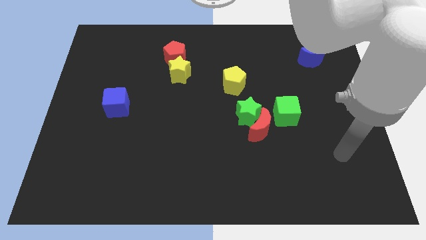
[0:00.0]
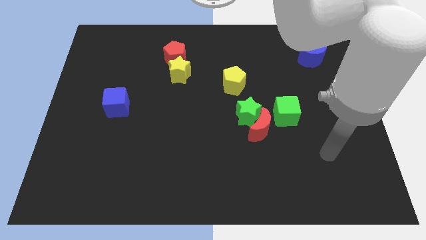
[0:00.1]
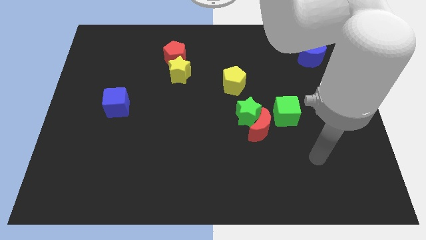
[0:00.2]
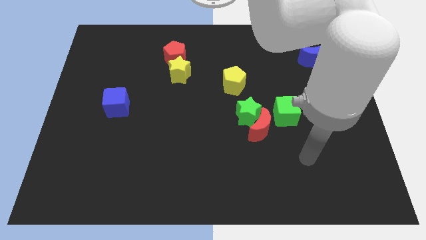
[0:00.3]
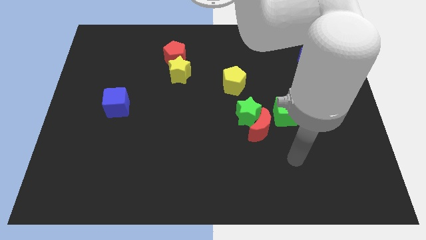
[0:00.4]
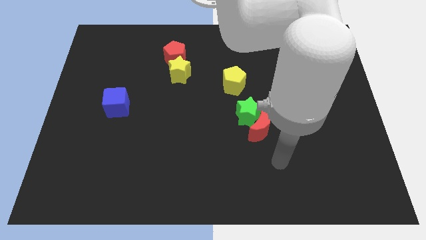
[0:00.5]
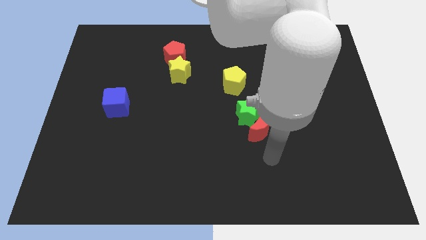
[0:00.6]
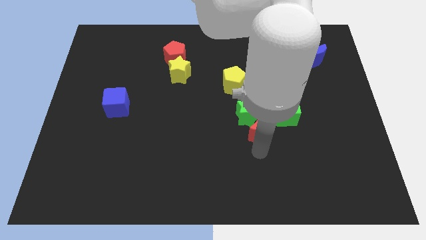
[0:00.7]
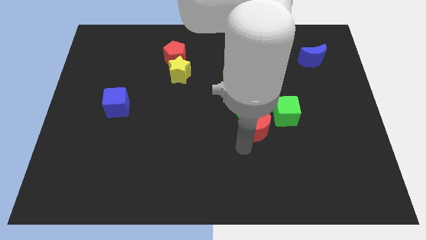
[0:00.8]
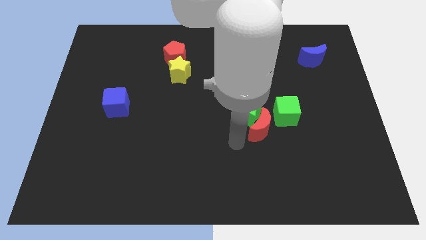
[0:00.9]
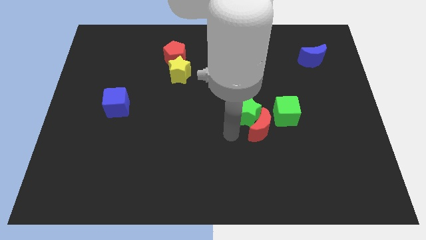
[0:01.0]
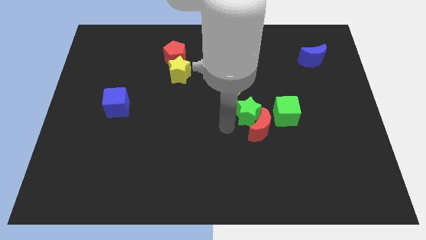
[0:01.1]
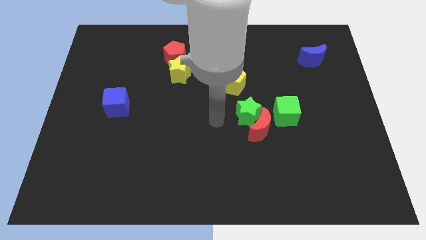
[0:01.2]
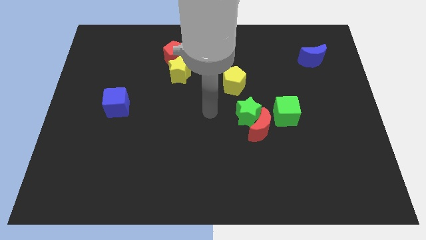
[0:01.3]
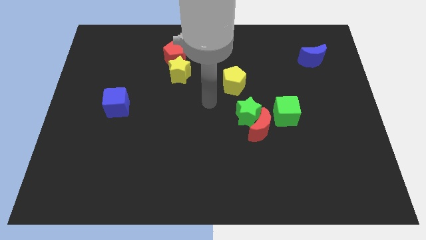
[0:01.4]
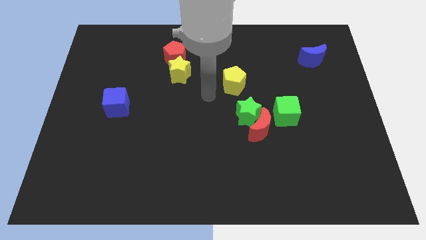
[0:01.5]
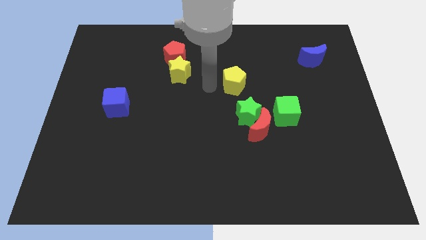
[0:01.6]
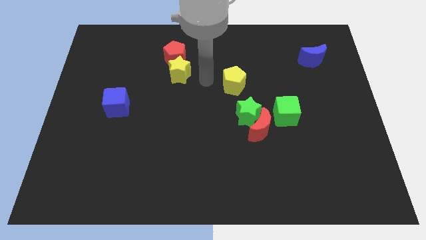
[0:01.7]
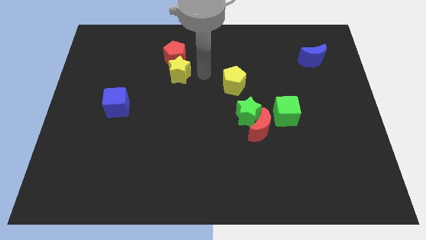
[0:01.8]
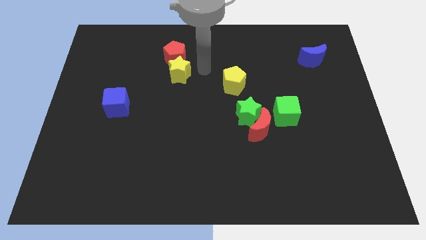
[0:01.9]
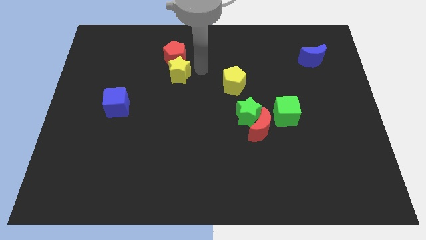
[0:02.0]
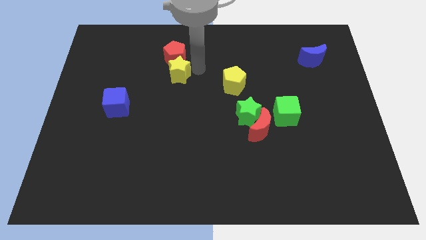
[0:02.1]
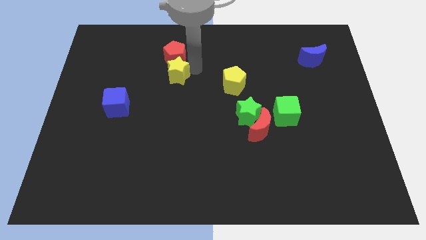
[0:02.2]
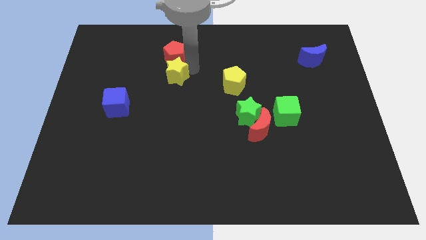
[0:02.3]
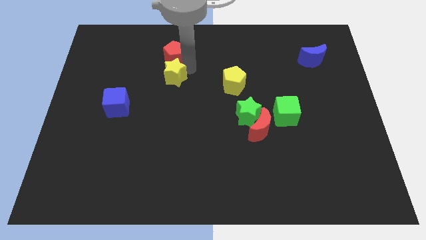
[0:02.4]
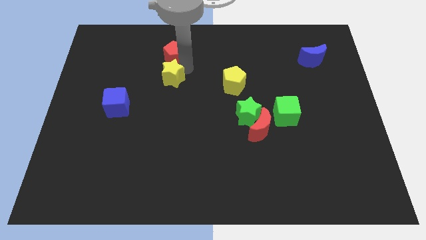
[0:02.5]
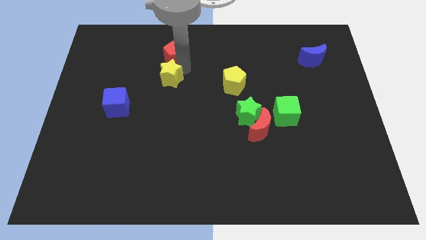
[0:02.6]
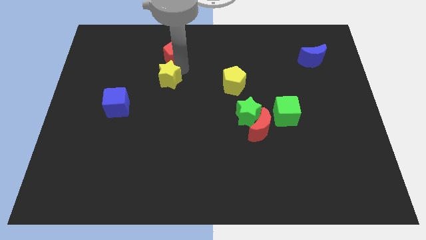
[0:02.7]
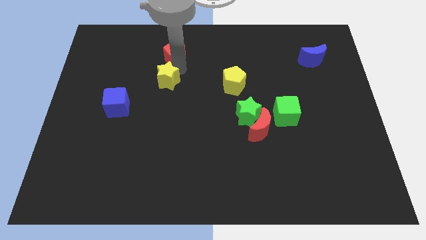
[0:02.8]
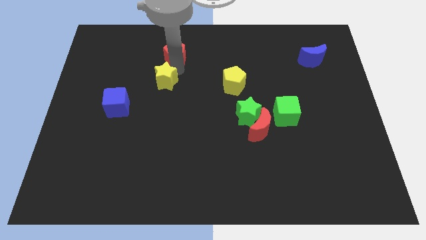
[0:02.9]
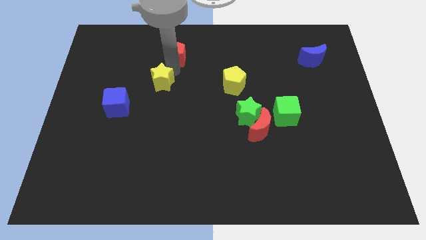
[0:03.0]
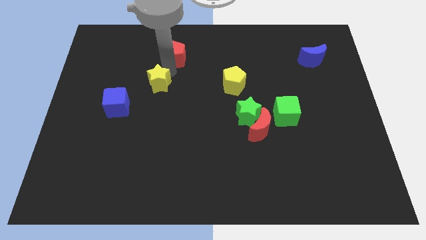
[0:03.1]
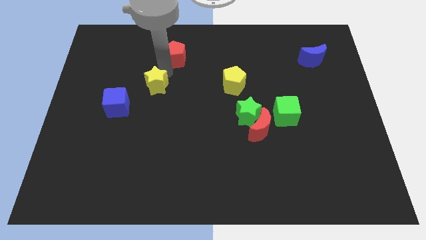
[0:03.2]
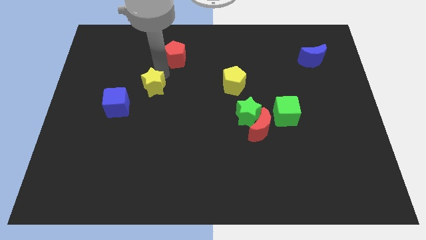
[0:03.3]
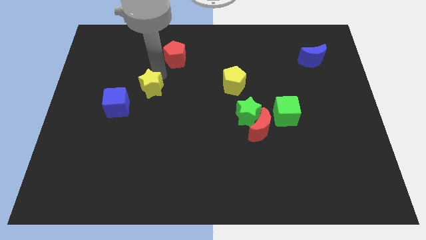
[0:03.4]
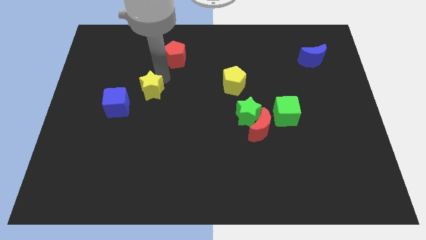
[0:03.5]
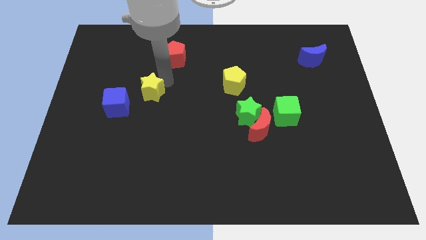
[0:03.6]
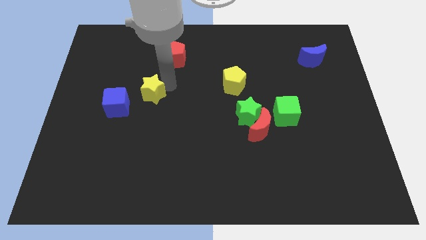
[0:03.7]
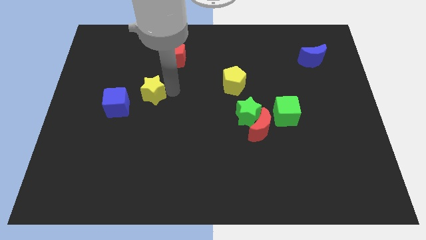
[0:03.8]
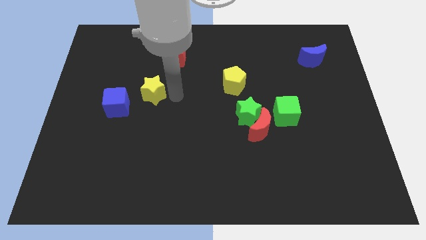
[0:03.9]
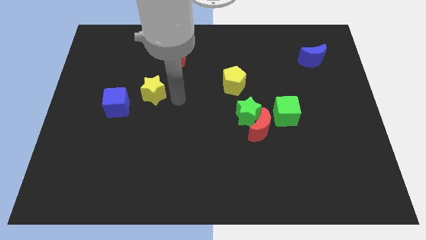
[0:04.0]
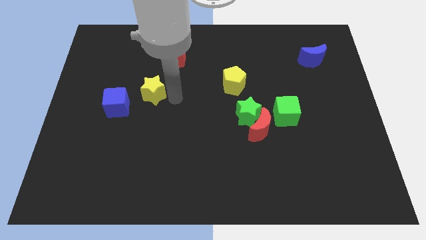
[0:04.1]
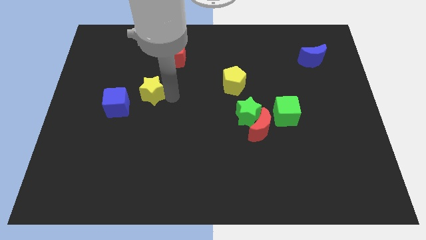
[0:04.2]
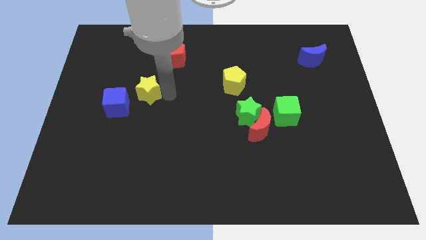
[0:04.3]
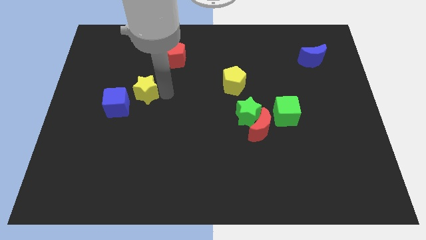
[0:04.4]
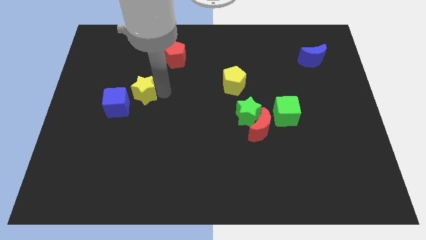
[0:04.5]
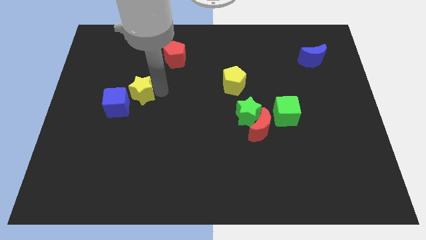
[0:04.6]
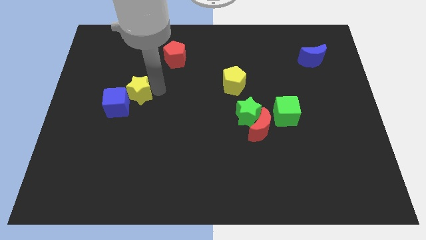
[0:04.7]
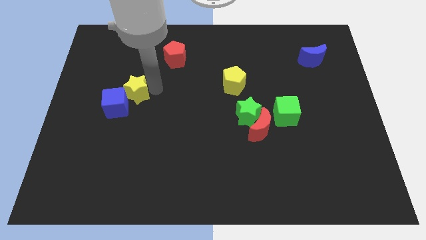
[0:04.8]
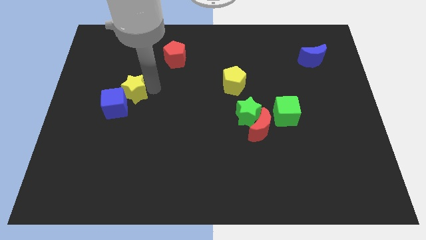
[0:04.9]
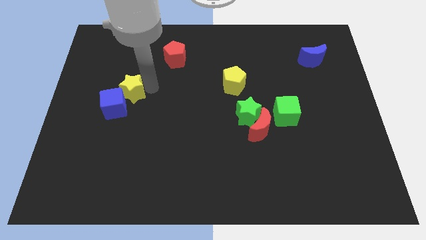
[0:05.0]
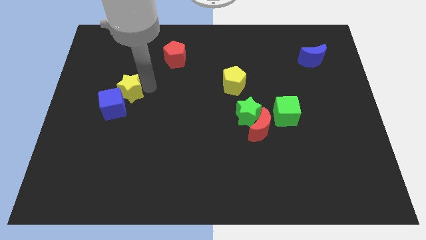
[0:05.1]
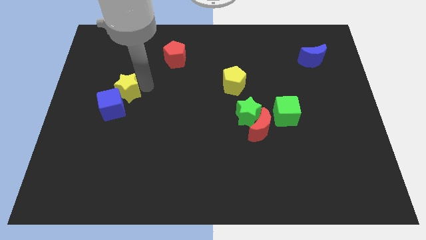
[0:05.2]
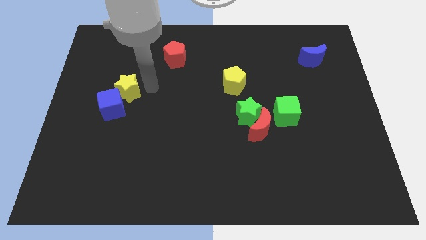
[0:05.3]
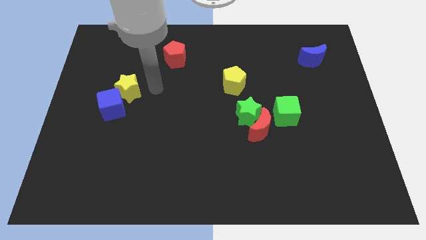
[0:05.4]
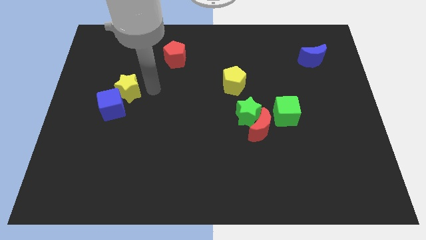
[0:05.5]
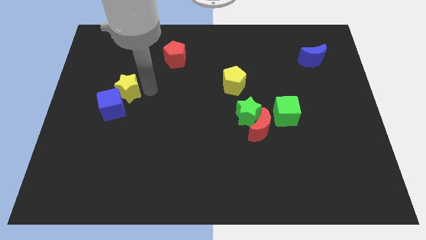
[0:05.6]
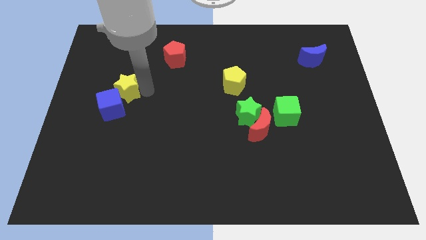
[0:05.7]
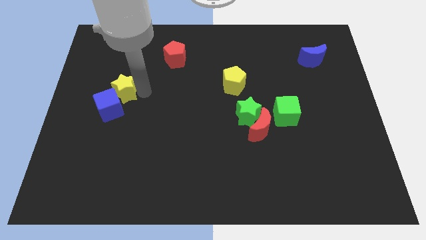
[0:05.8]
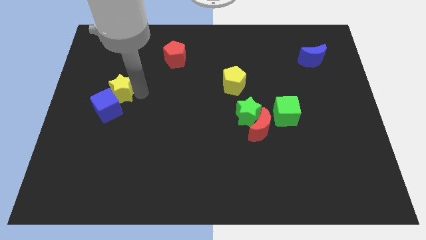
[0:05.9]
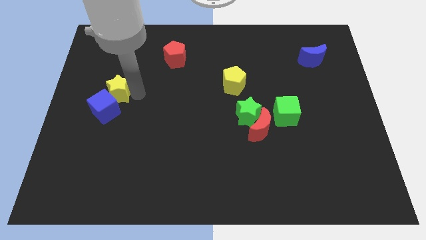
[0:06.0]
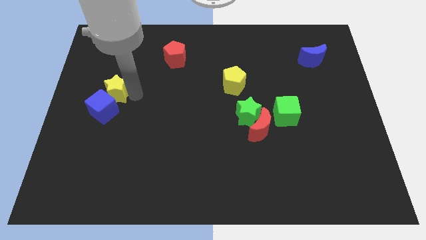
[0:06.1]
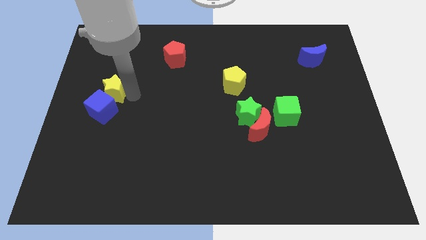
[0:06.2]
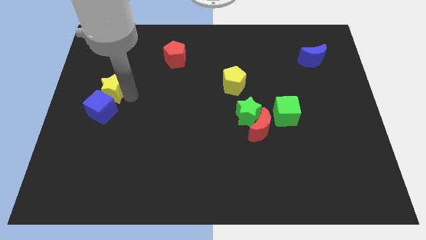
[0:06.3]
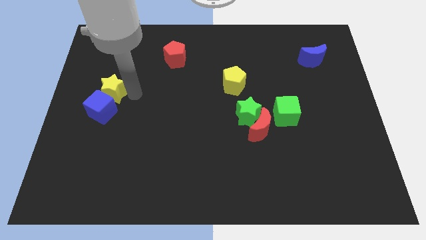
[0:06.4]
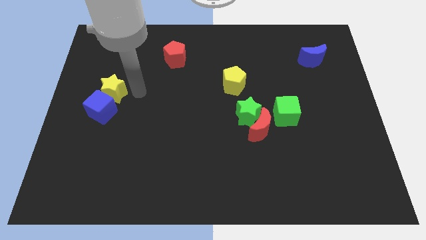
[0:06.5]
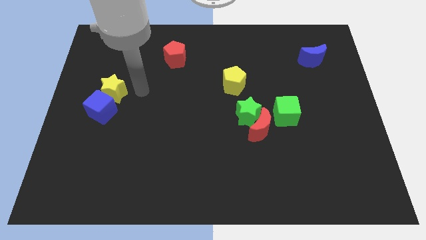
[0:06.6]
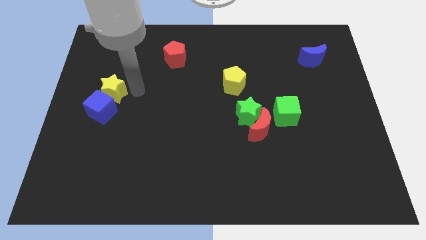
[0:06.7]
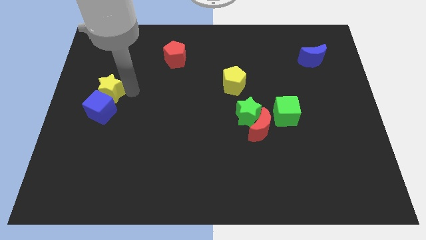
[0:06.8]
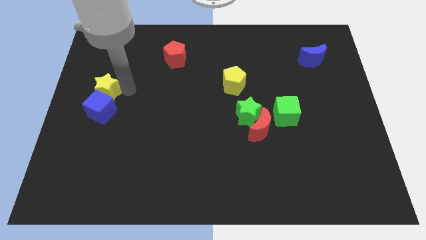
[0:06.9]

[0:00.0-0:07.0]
push the yellow star to the left side

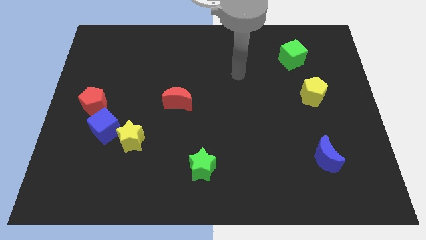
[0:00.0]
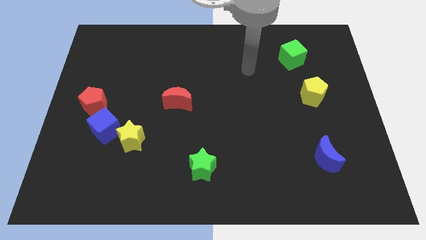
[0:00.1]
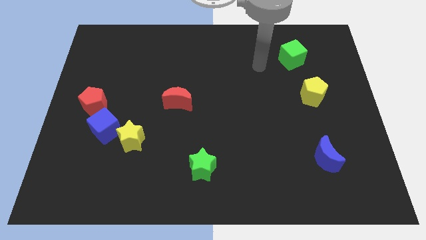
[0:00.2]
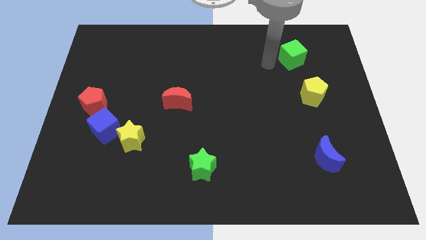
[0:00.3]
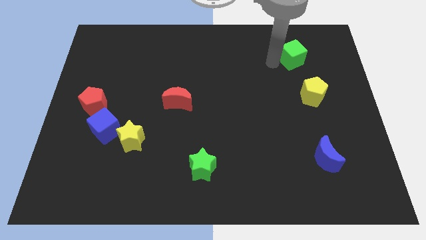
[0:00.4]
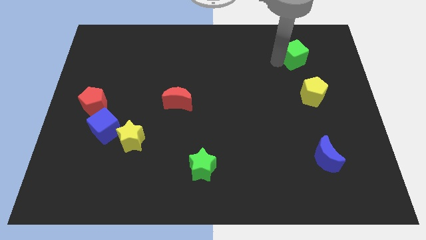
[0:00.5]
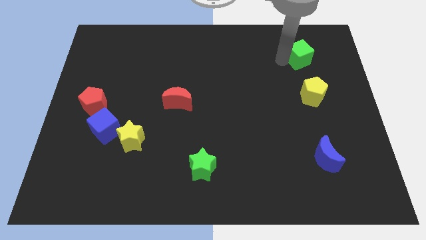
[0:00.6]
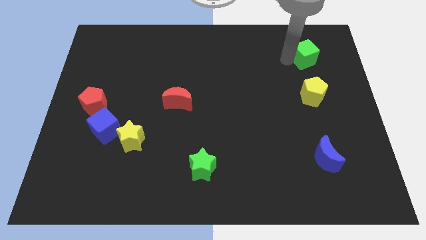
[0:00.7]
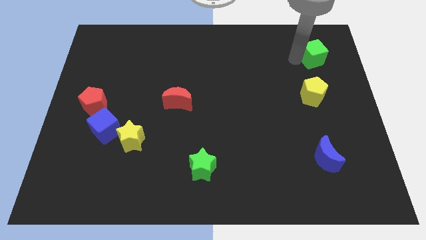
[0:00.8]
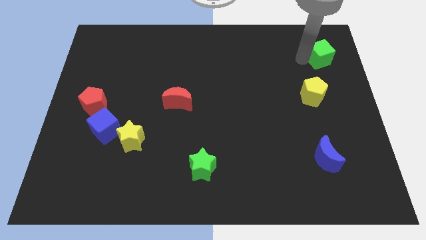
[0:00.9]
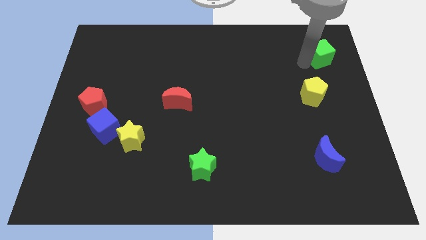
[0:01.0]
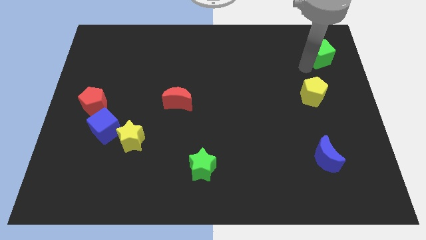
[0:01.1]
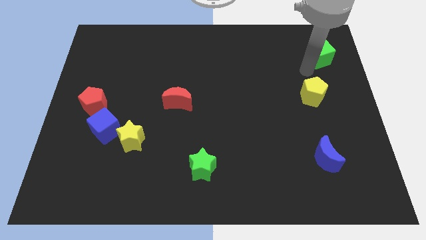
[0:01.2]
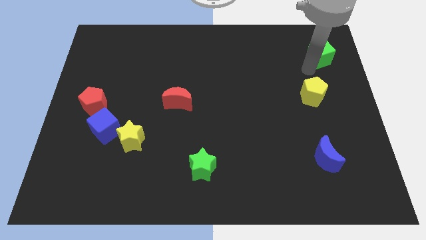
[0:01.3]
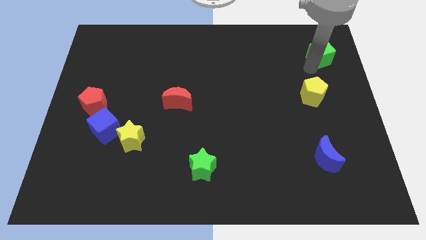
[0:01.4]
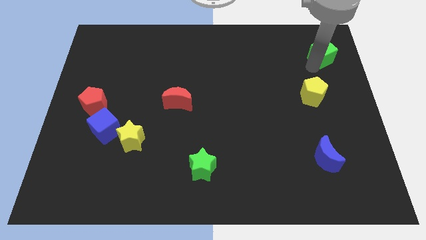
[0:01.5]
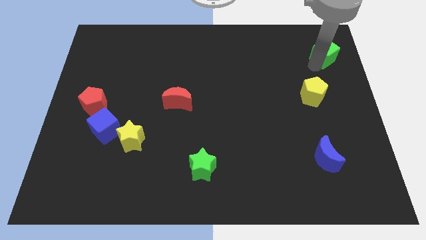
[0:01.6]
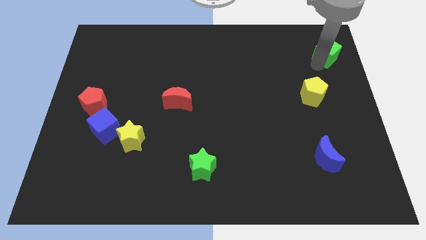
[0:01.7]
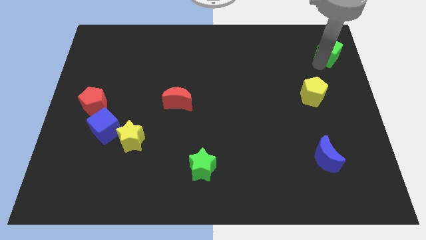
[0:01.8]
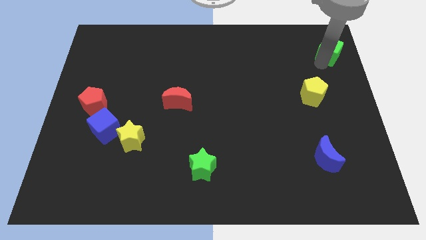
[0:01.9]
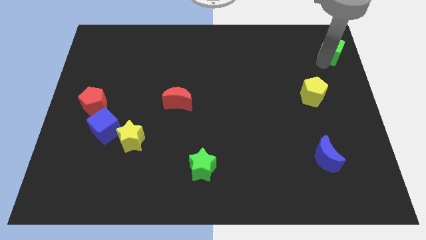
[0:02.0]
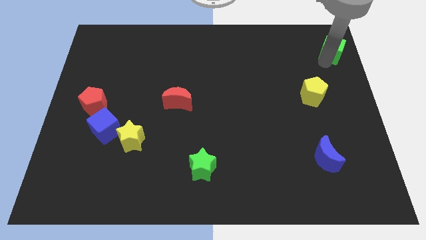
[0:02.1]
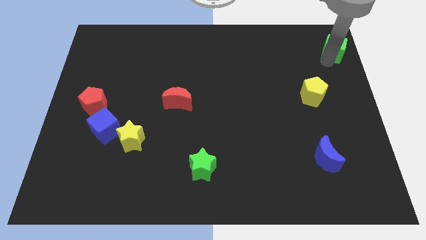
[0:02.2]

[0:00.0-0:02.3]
slide the green cube to the top right of the board
